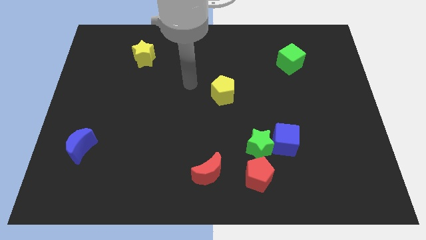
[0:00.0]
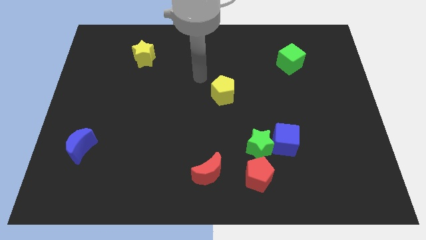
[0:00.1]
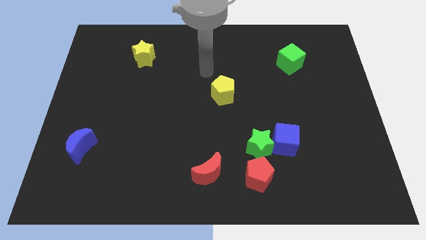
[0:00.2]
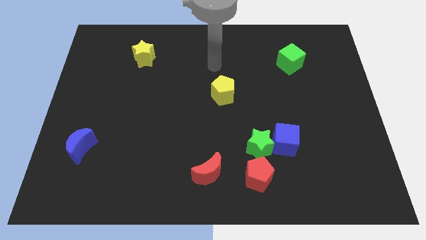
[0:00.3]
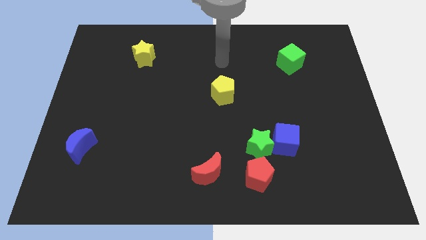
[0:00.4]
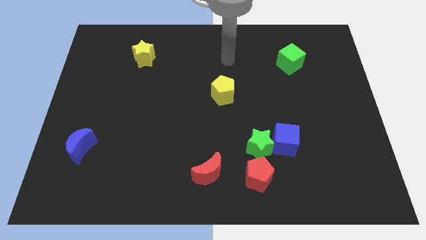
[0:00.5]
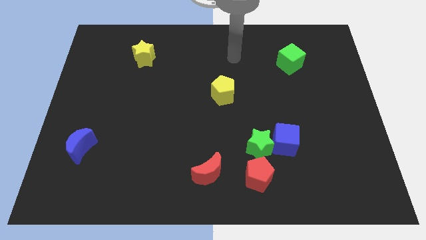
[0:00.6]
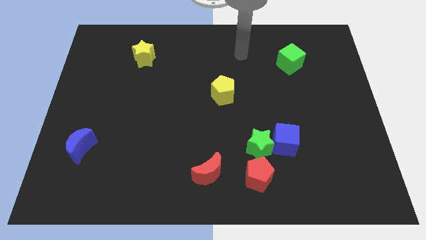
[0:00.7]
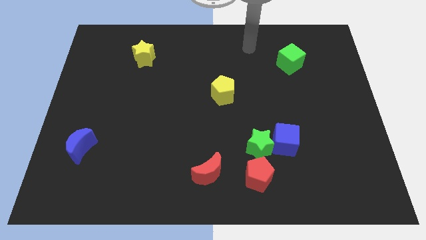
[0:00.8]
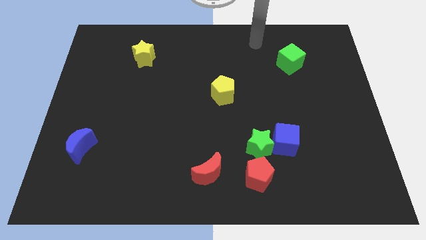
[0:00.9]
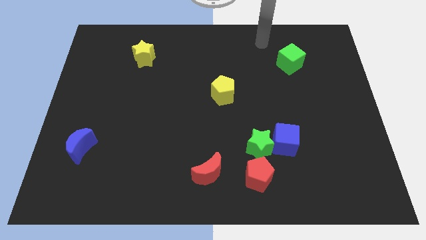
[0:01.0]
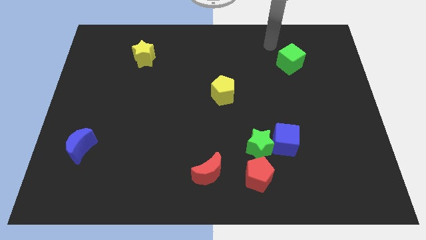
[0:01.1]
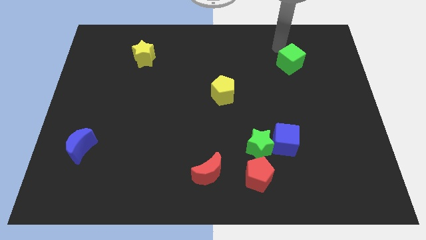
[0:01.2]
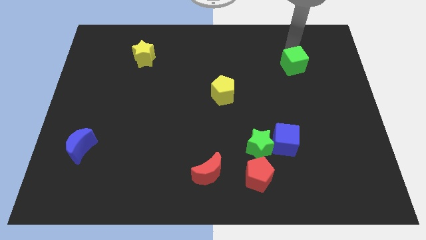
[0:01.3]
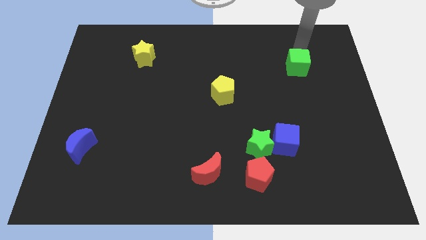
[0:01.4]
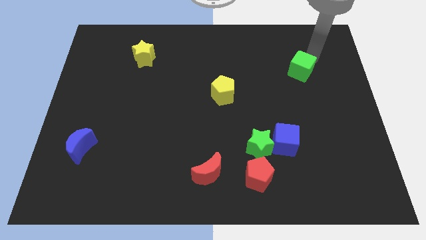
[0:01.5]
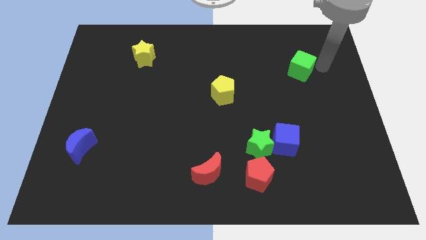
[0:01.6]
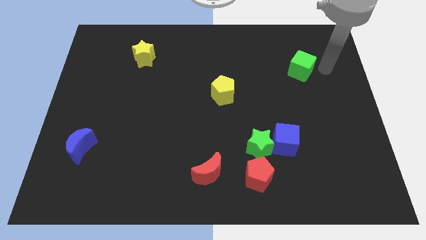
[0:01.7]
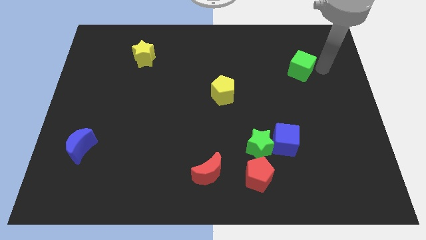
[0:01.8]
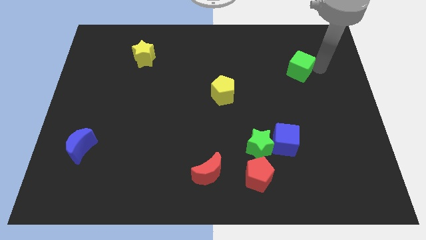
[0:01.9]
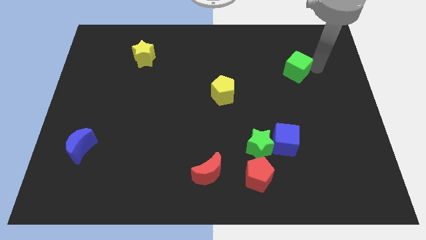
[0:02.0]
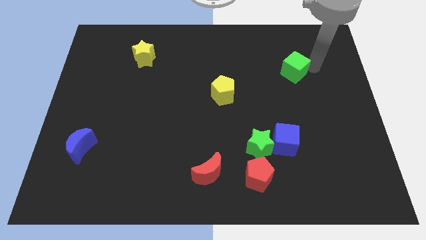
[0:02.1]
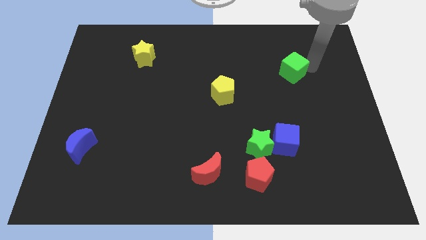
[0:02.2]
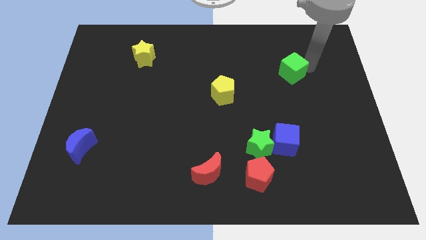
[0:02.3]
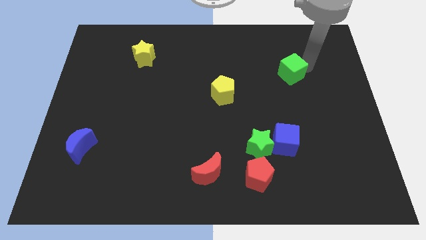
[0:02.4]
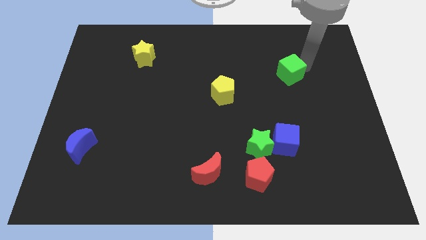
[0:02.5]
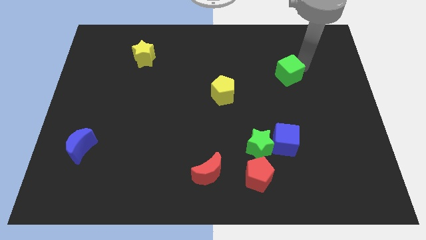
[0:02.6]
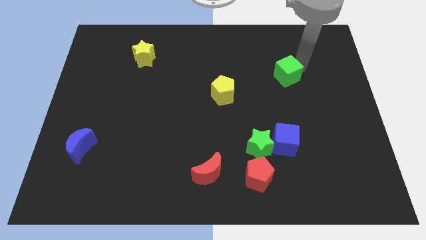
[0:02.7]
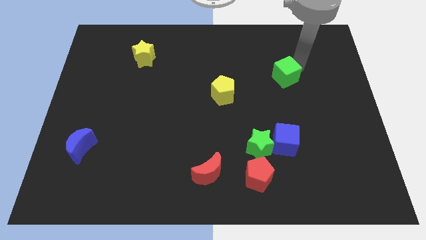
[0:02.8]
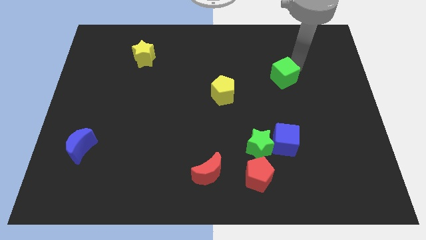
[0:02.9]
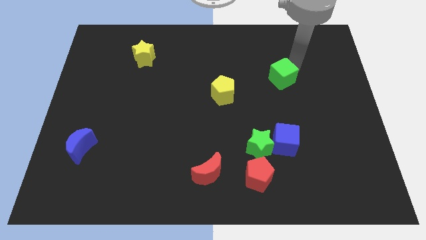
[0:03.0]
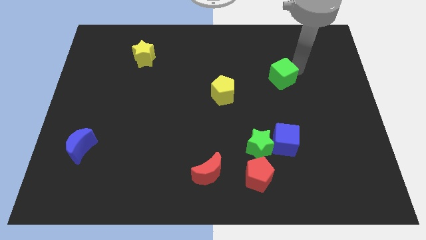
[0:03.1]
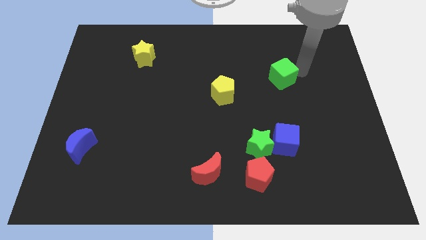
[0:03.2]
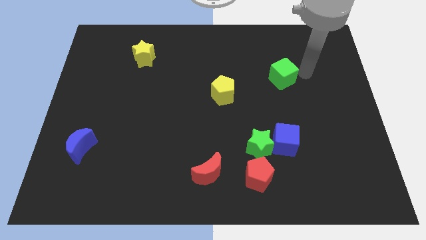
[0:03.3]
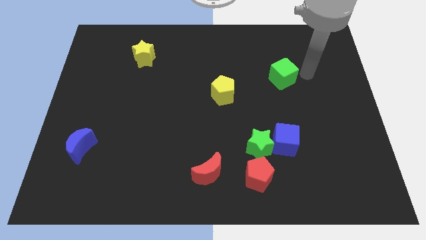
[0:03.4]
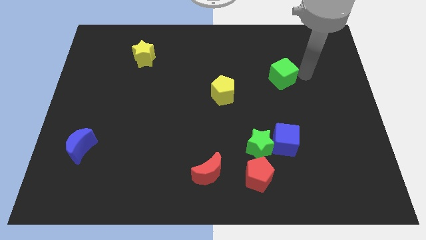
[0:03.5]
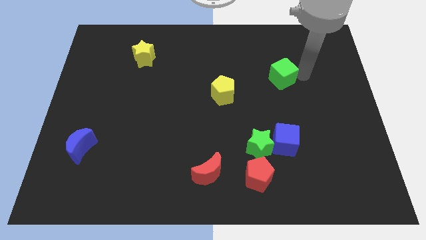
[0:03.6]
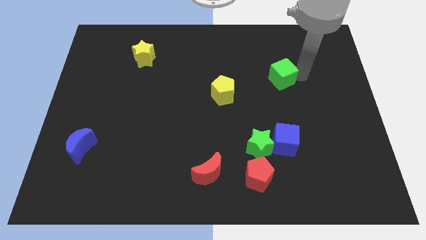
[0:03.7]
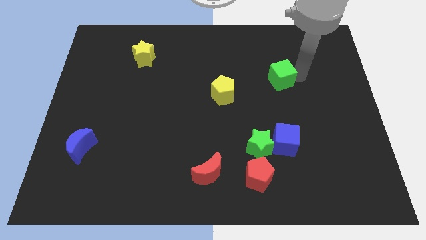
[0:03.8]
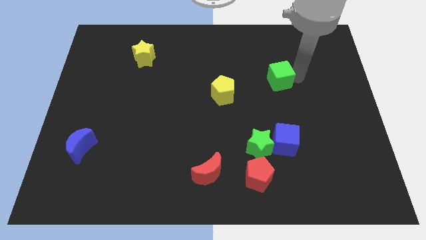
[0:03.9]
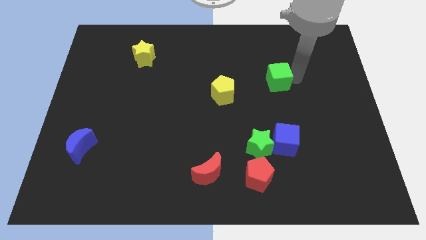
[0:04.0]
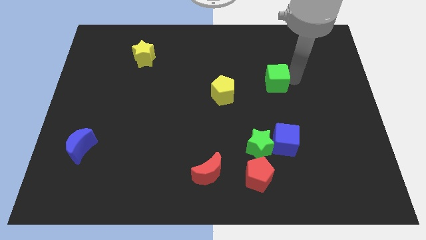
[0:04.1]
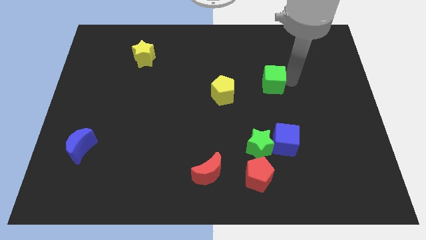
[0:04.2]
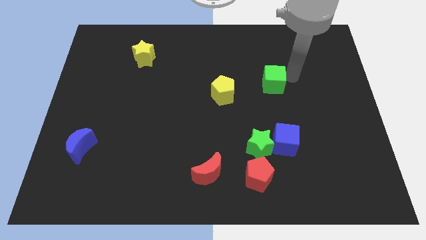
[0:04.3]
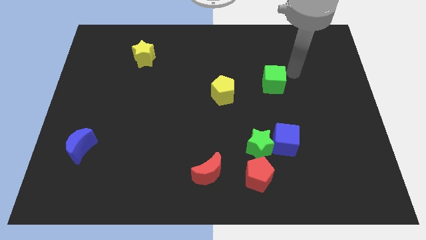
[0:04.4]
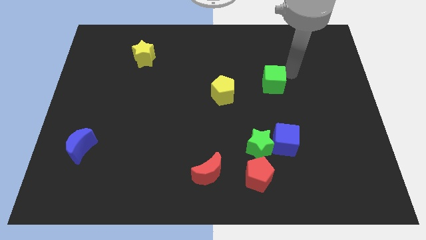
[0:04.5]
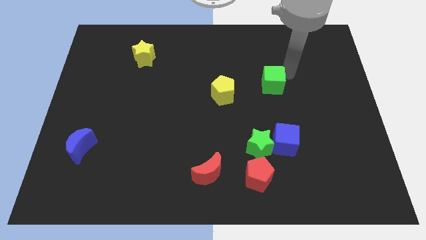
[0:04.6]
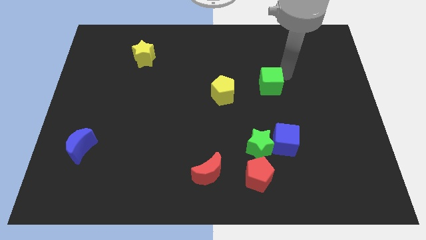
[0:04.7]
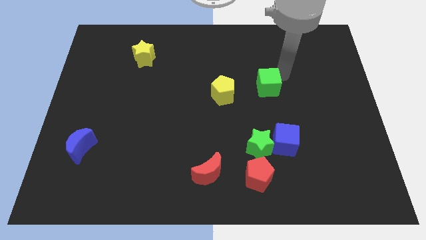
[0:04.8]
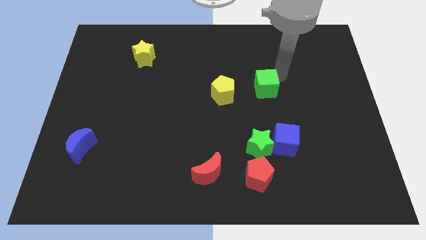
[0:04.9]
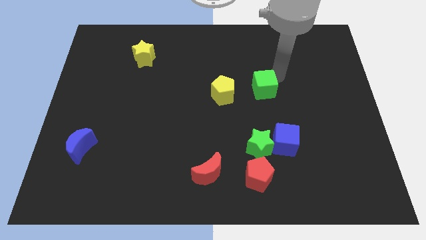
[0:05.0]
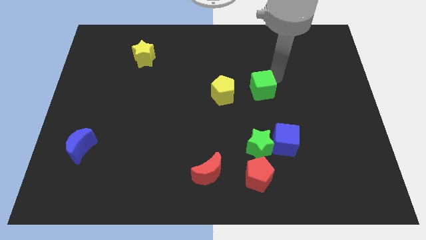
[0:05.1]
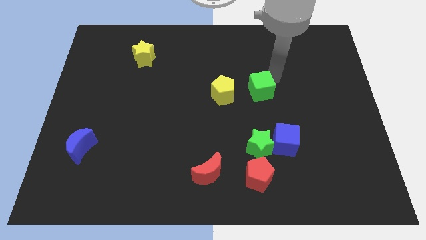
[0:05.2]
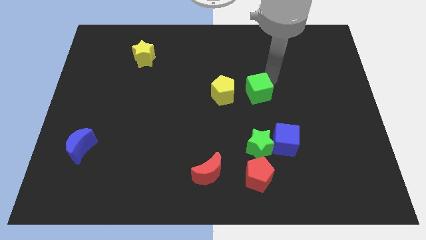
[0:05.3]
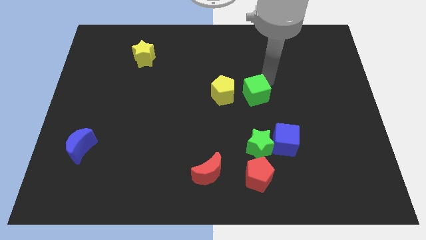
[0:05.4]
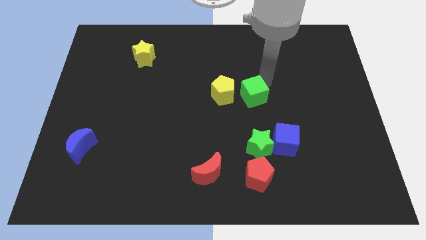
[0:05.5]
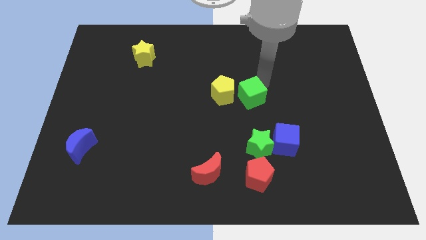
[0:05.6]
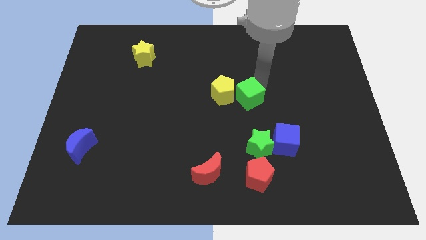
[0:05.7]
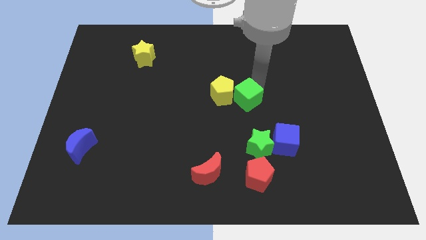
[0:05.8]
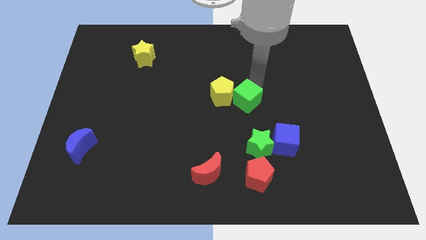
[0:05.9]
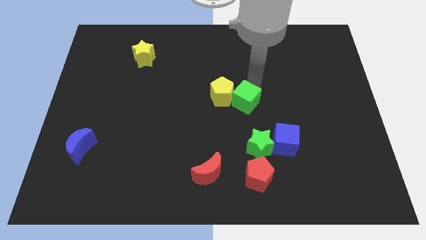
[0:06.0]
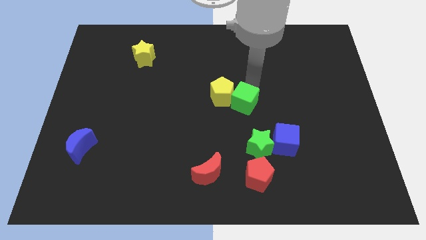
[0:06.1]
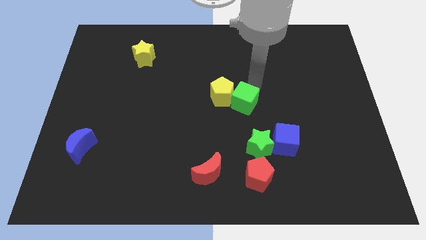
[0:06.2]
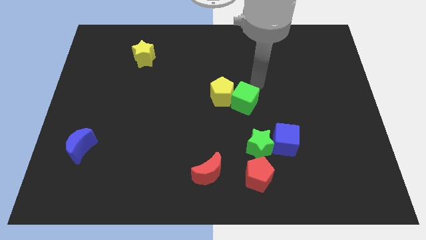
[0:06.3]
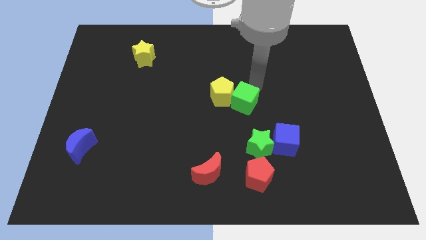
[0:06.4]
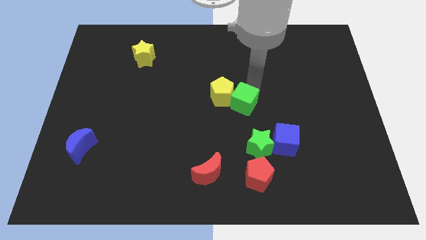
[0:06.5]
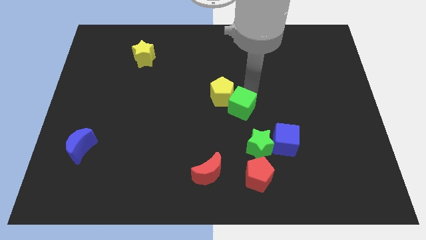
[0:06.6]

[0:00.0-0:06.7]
move the green cube below the yellow pentagon

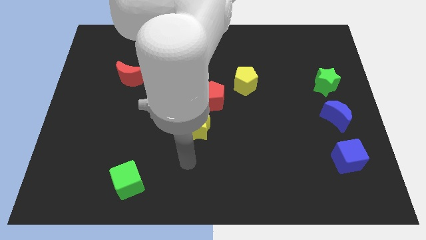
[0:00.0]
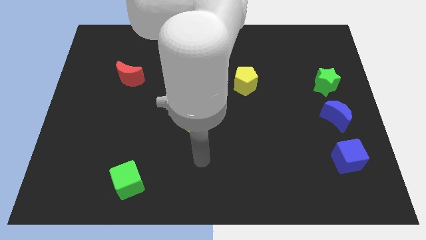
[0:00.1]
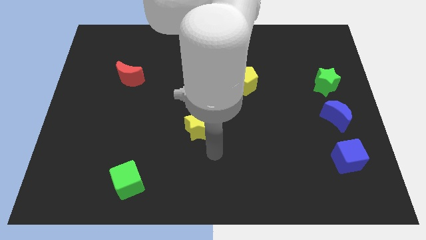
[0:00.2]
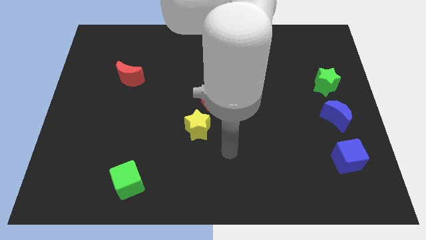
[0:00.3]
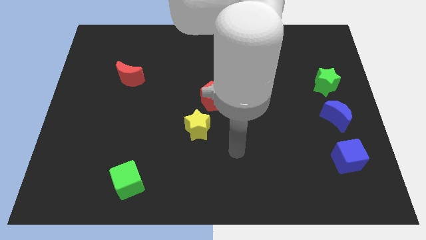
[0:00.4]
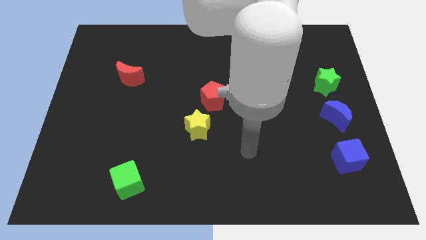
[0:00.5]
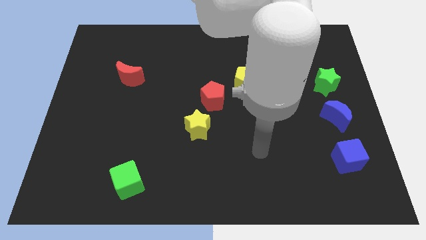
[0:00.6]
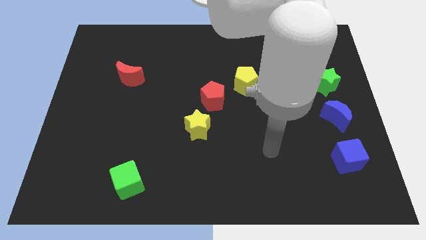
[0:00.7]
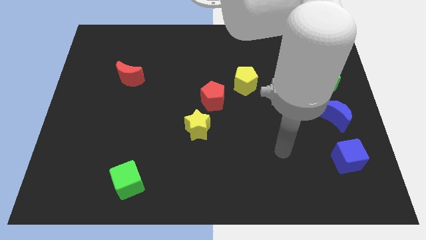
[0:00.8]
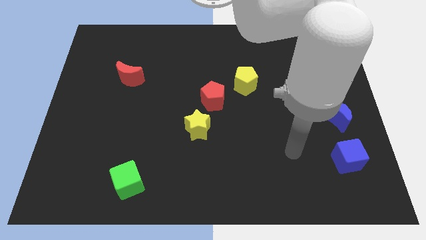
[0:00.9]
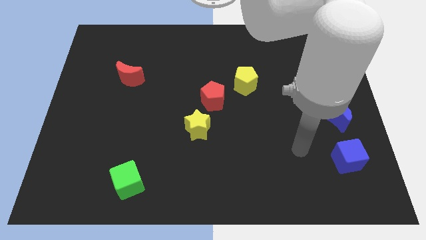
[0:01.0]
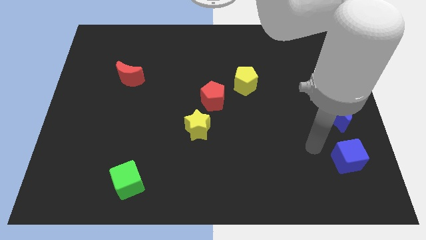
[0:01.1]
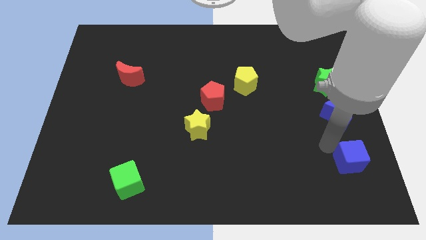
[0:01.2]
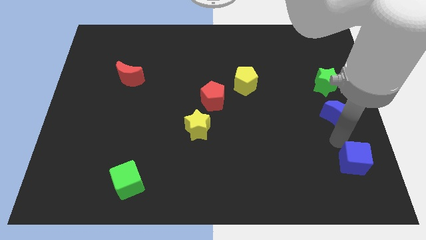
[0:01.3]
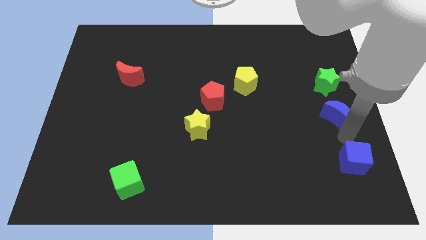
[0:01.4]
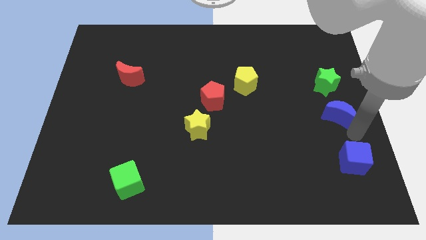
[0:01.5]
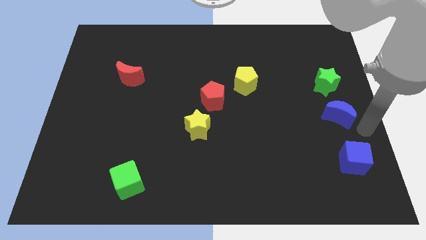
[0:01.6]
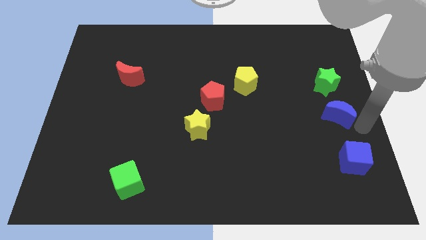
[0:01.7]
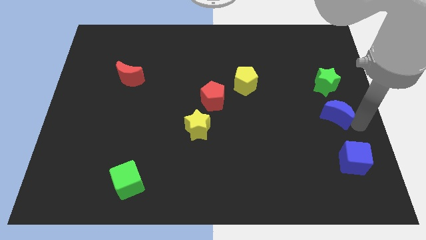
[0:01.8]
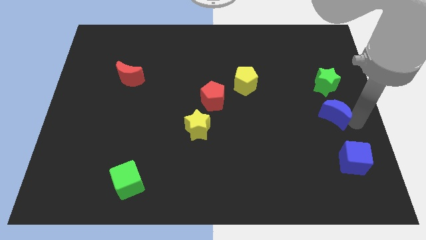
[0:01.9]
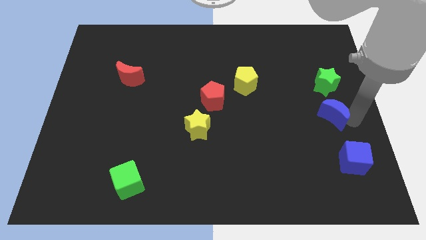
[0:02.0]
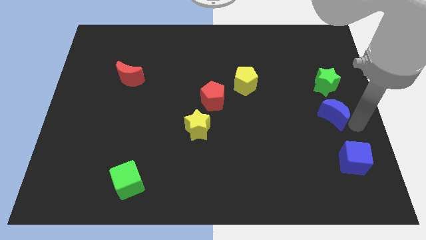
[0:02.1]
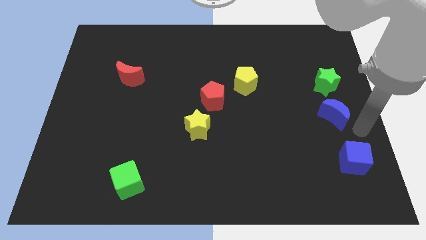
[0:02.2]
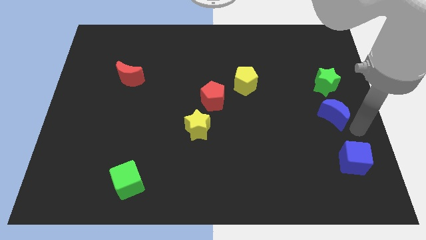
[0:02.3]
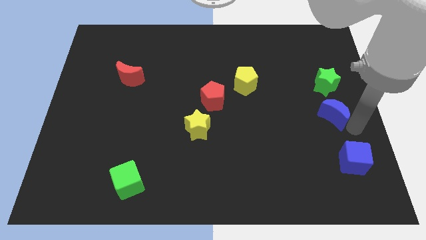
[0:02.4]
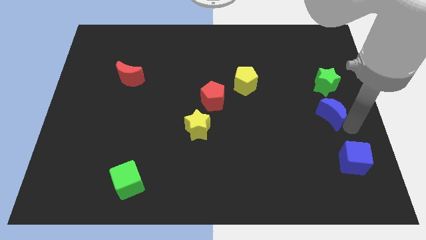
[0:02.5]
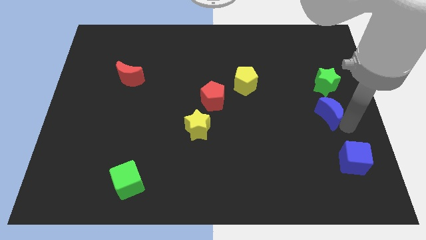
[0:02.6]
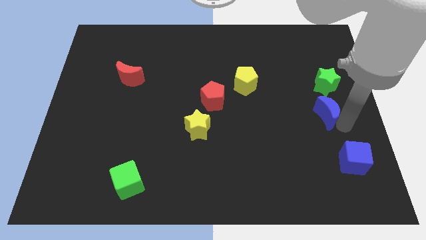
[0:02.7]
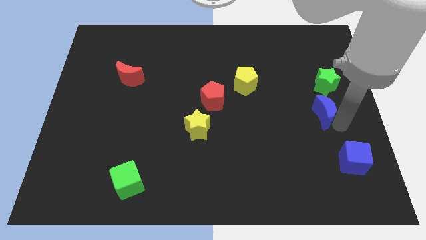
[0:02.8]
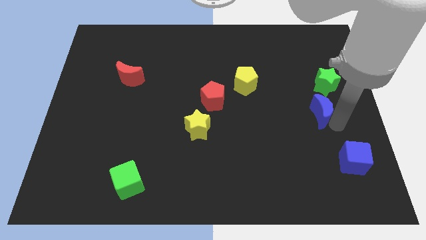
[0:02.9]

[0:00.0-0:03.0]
move the blue moon diagonally down and to the left of the green star
